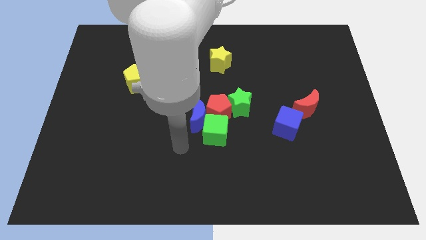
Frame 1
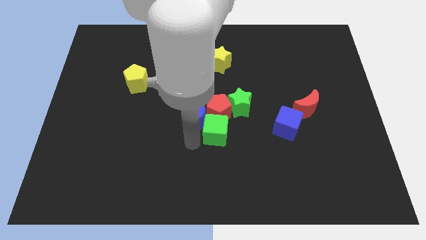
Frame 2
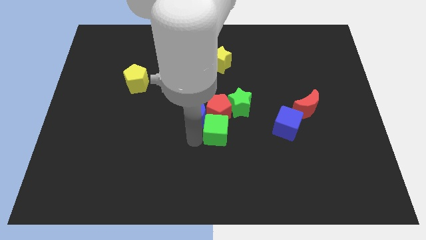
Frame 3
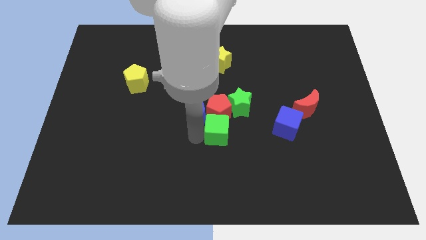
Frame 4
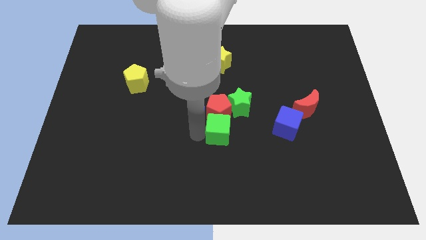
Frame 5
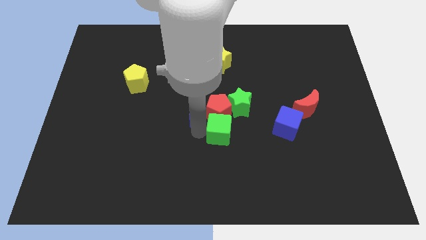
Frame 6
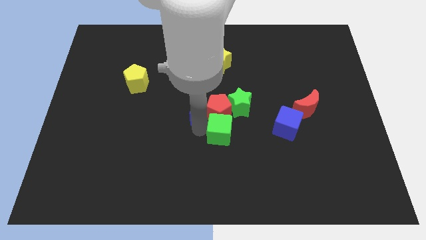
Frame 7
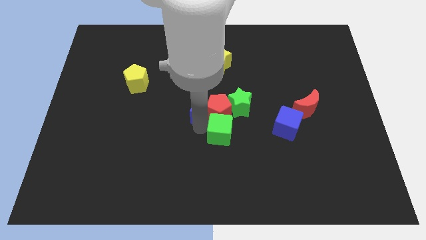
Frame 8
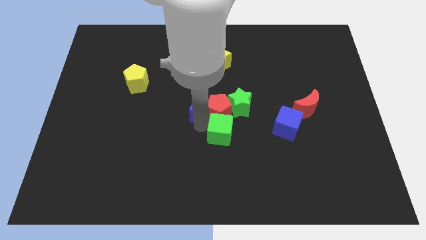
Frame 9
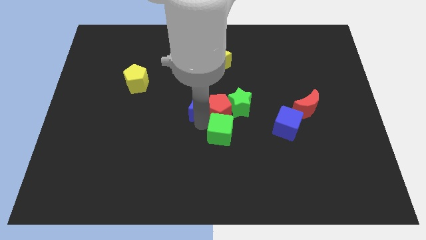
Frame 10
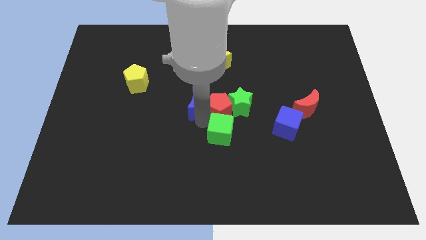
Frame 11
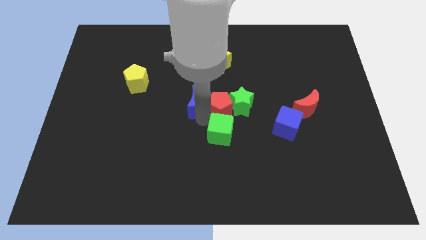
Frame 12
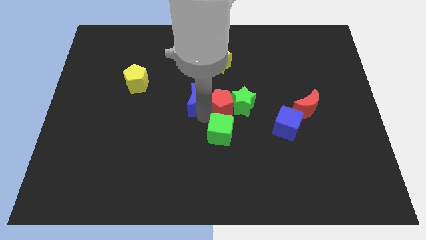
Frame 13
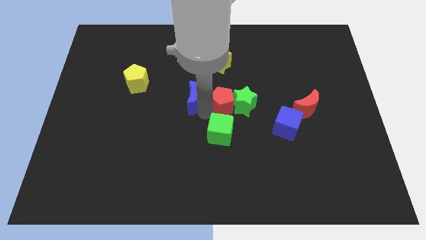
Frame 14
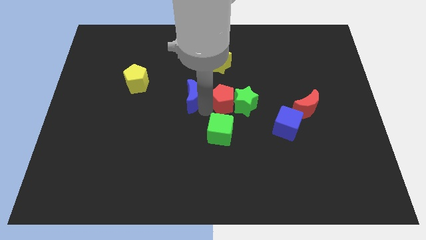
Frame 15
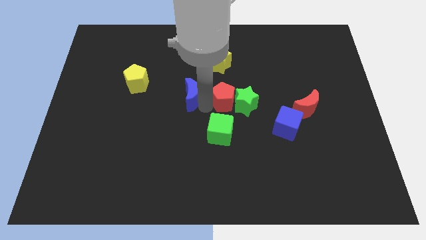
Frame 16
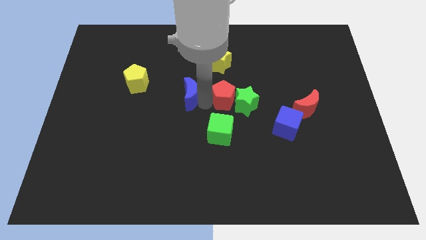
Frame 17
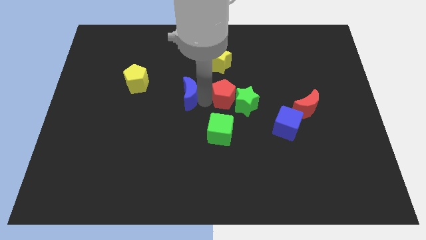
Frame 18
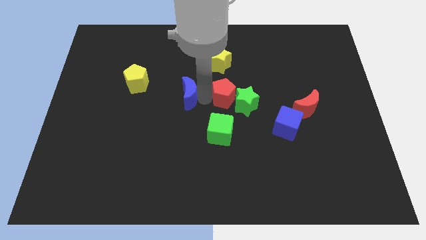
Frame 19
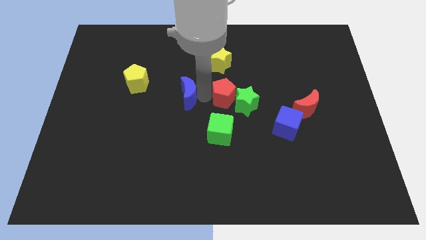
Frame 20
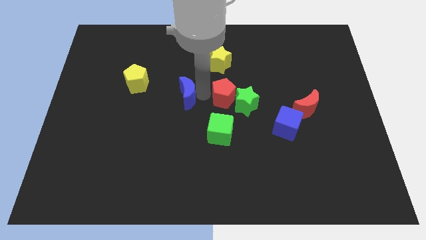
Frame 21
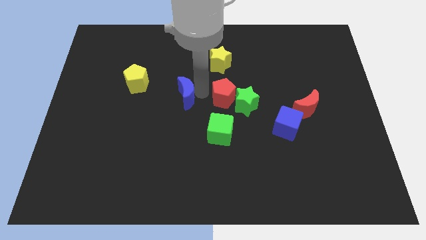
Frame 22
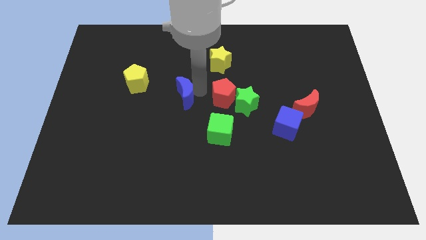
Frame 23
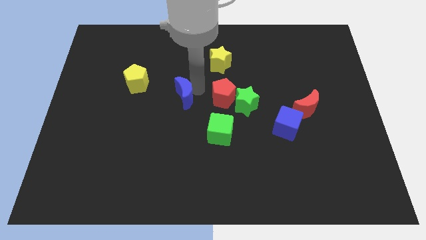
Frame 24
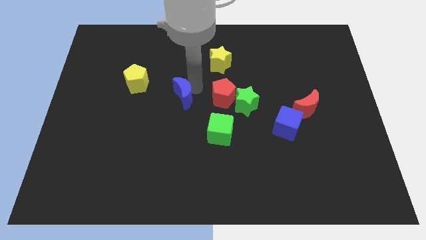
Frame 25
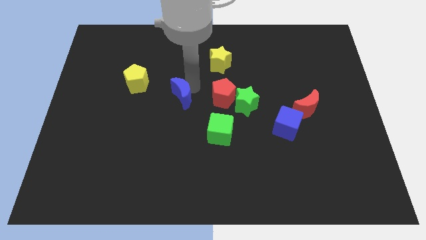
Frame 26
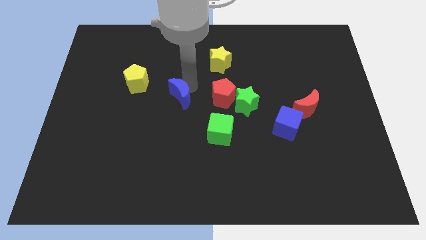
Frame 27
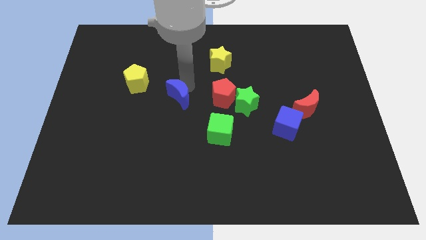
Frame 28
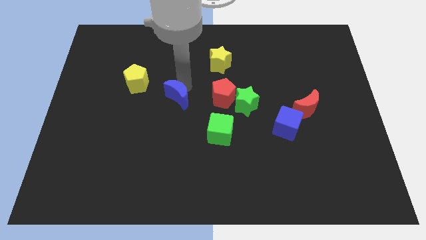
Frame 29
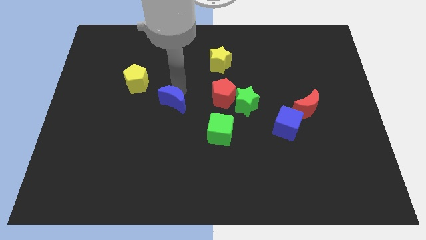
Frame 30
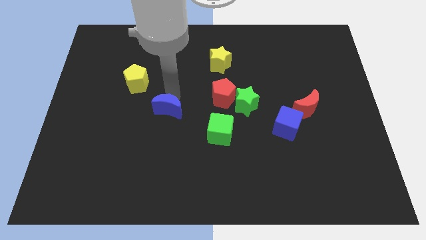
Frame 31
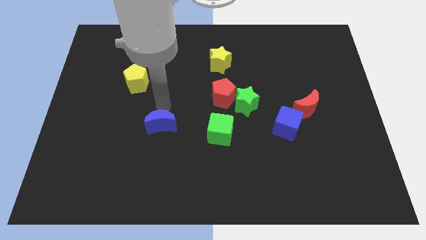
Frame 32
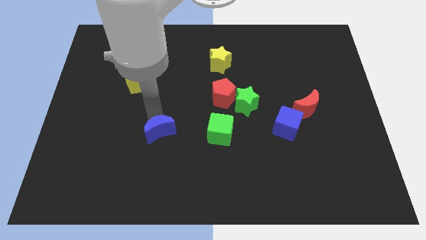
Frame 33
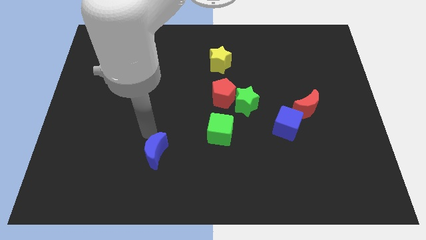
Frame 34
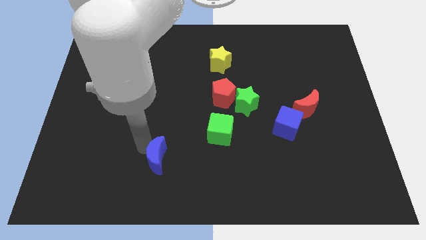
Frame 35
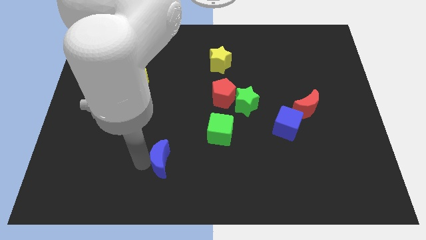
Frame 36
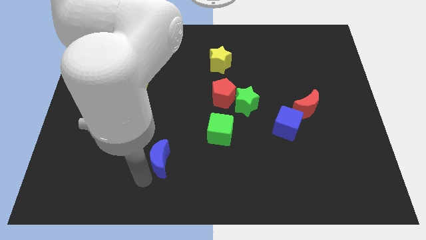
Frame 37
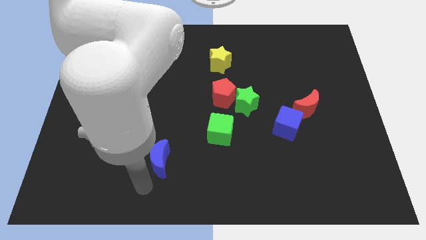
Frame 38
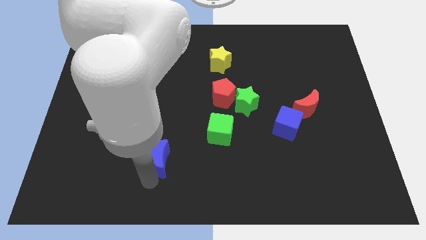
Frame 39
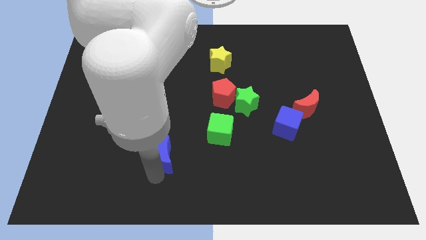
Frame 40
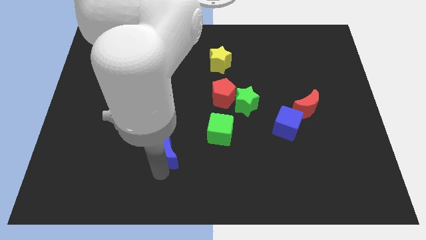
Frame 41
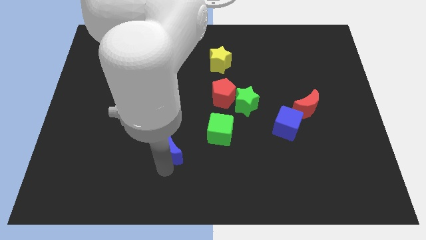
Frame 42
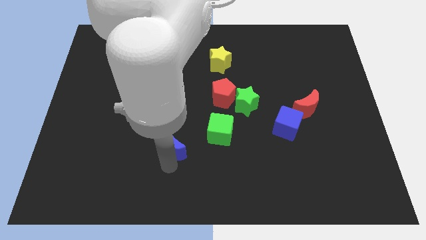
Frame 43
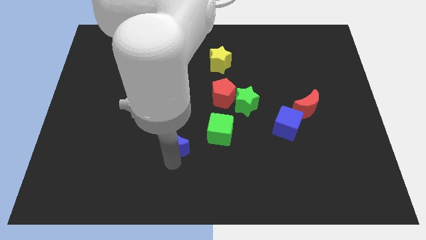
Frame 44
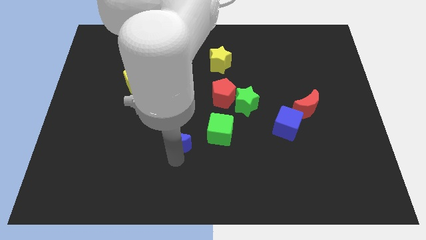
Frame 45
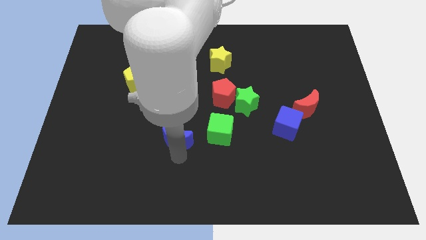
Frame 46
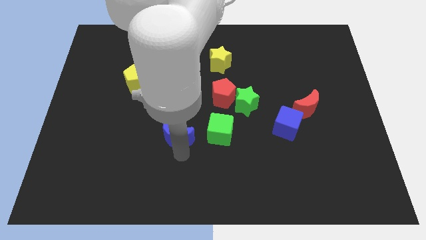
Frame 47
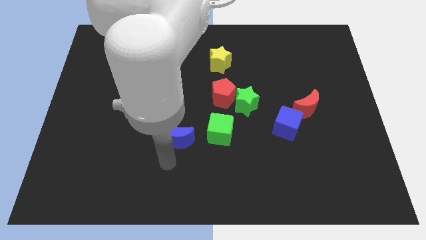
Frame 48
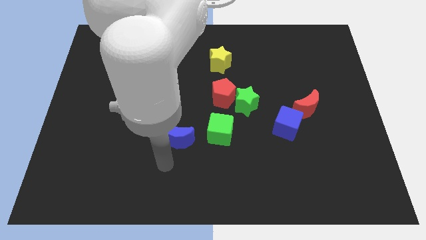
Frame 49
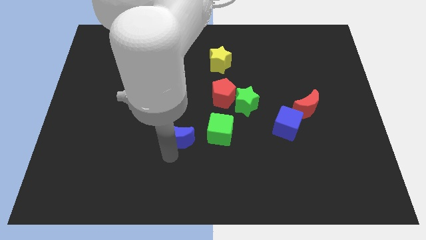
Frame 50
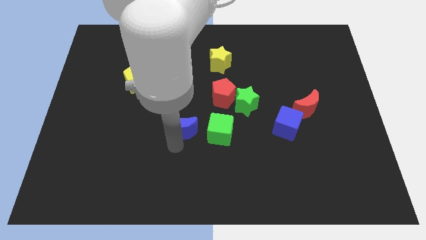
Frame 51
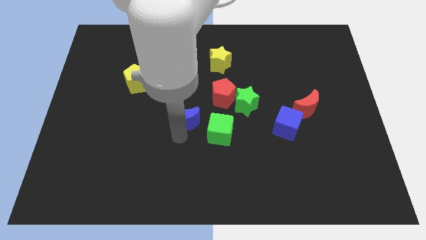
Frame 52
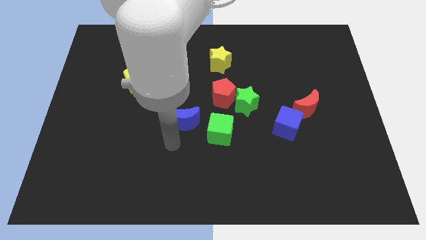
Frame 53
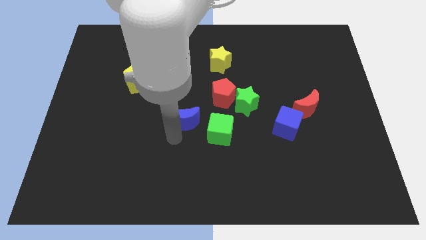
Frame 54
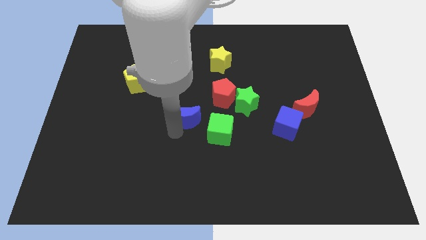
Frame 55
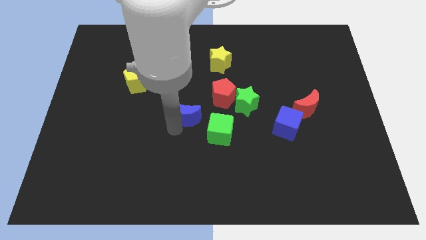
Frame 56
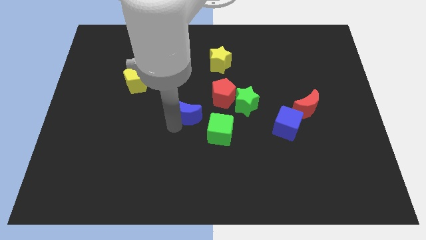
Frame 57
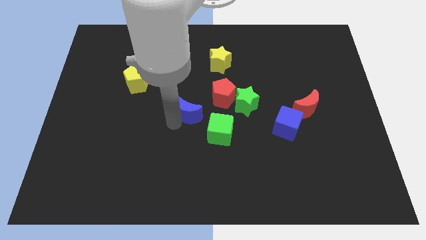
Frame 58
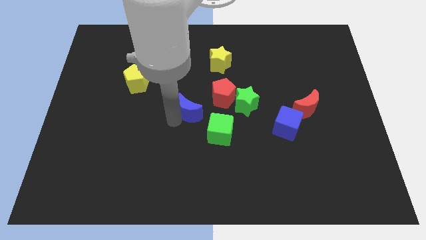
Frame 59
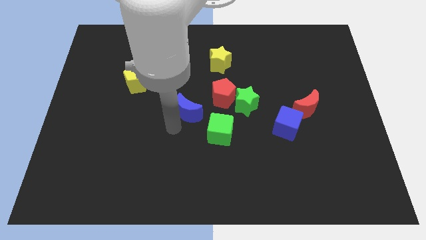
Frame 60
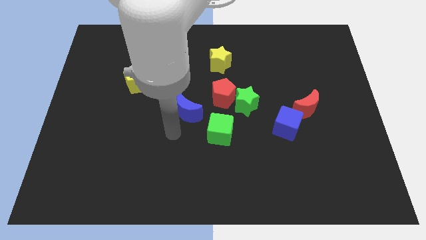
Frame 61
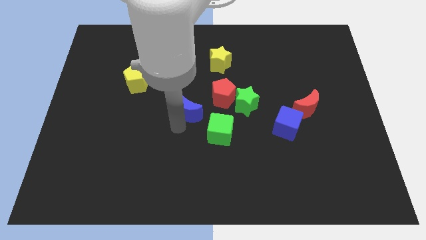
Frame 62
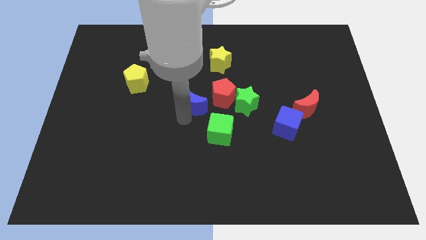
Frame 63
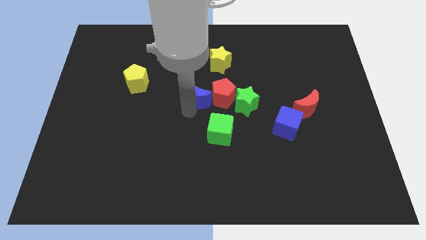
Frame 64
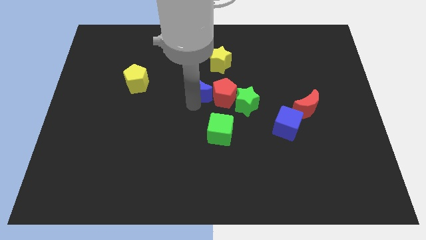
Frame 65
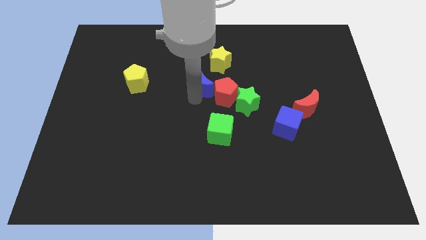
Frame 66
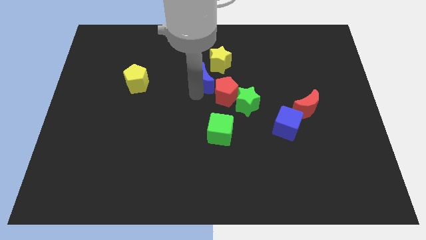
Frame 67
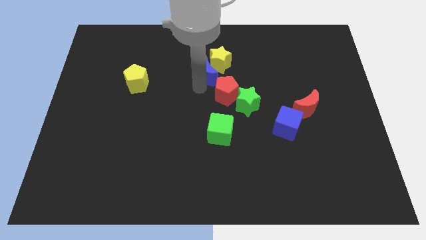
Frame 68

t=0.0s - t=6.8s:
push the blue moon to the yellow star
